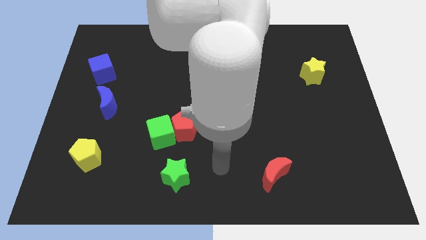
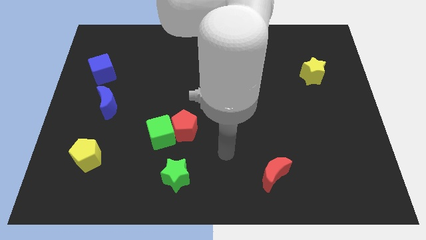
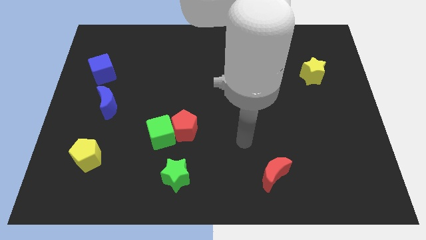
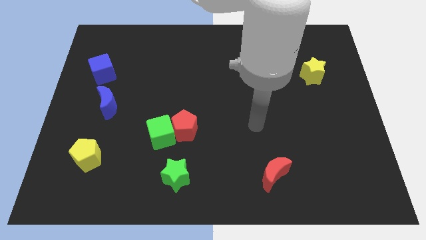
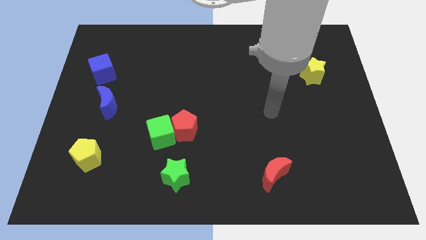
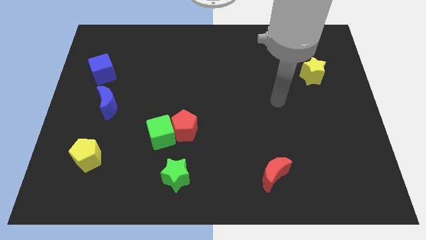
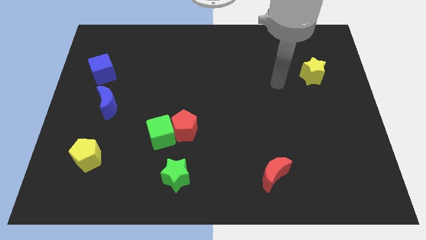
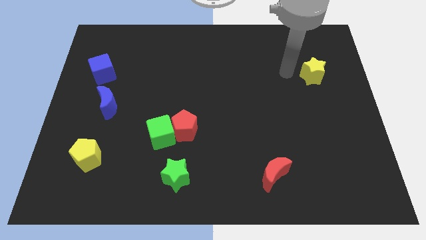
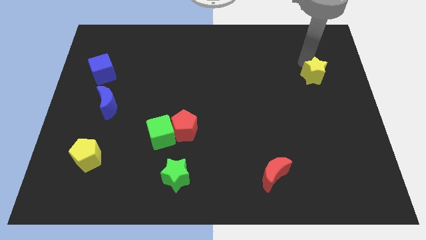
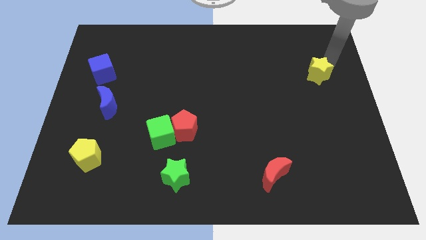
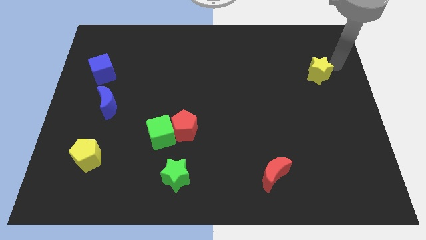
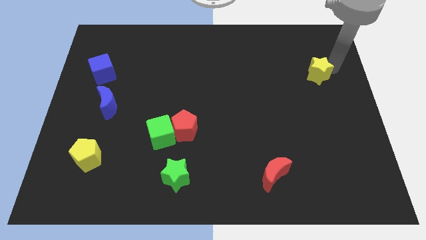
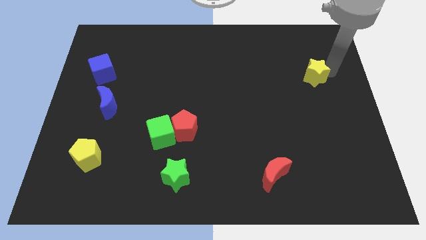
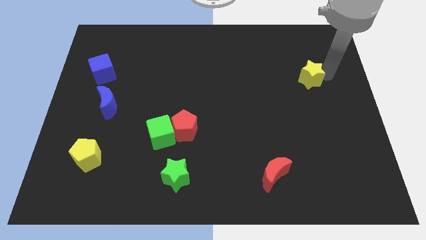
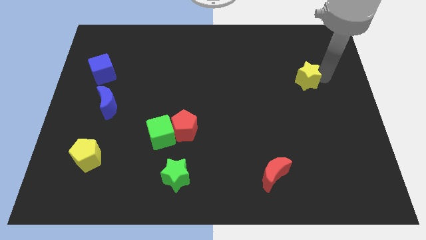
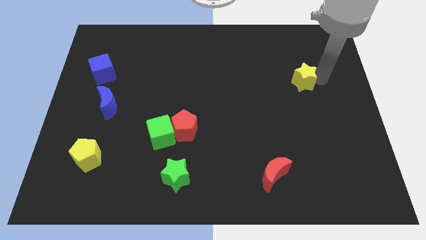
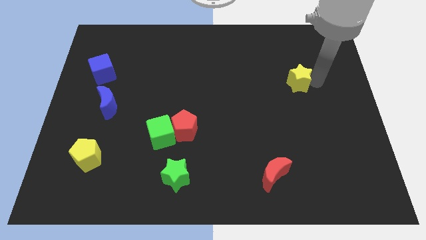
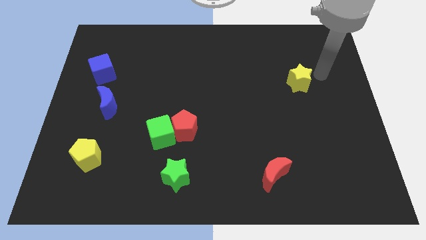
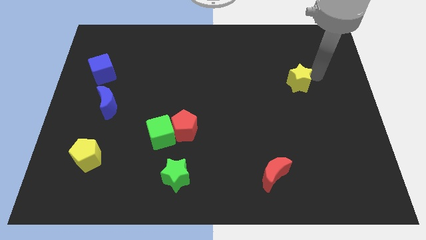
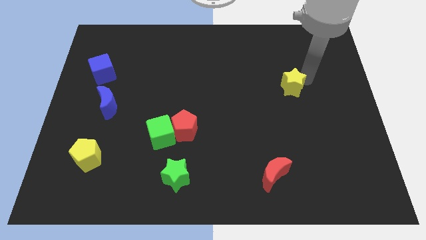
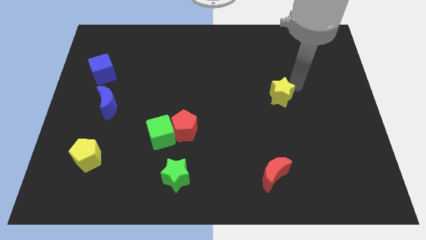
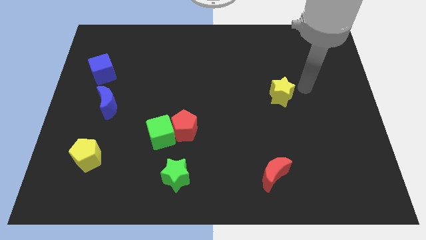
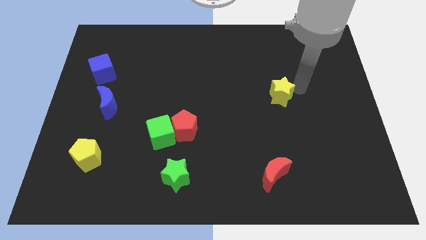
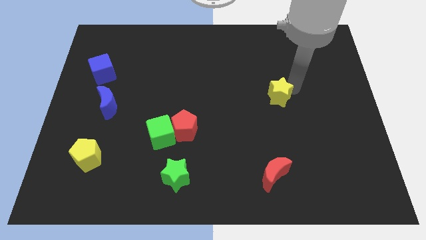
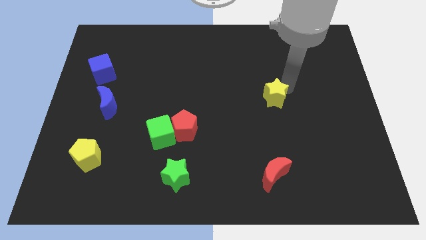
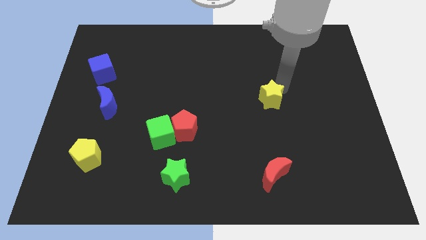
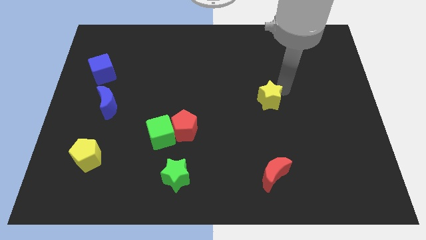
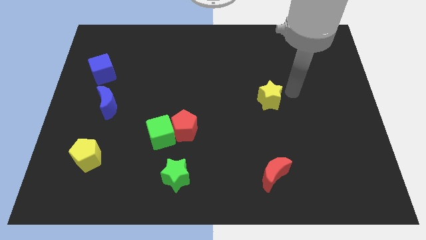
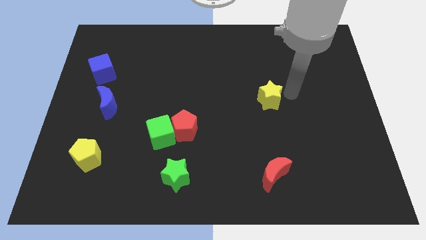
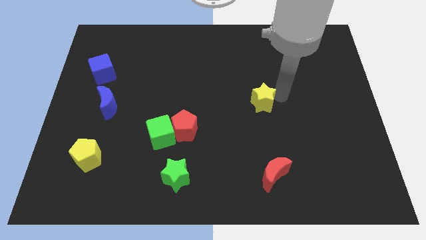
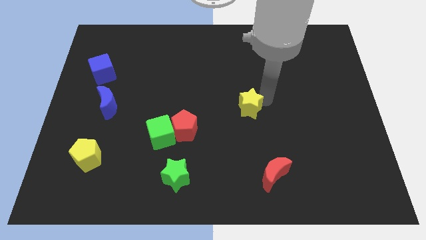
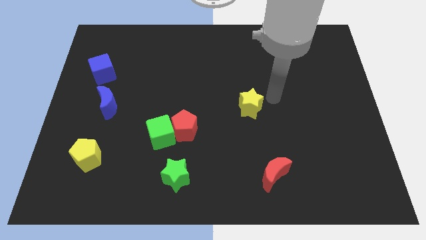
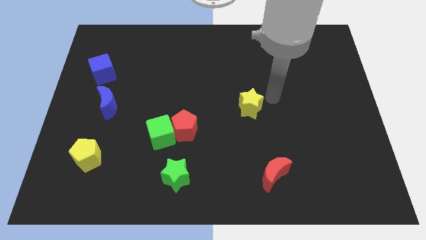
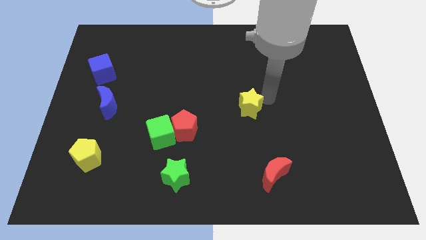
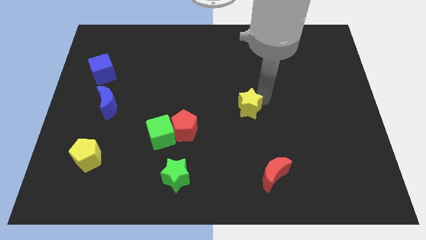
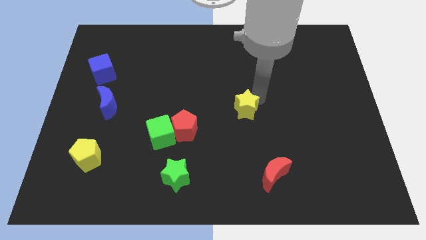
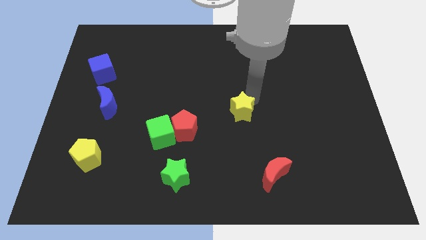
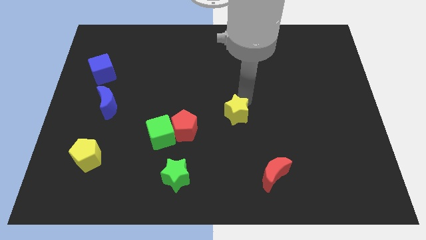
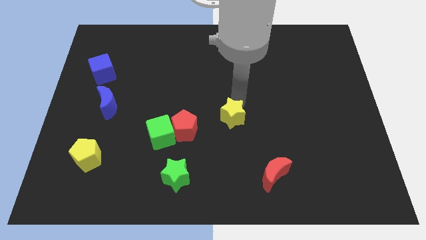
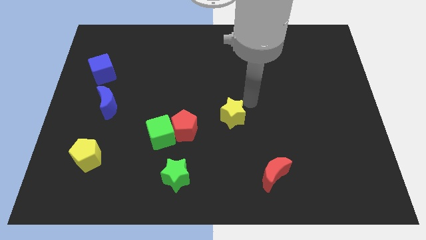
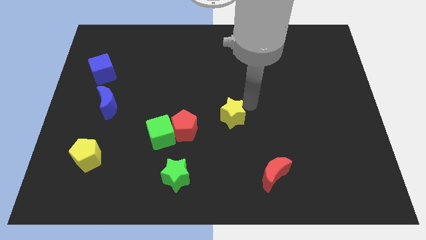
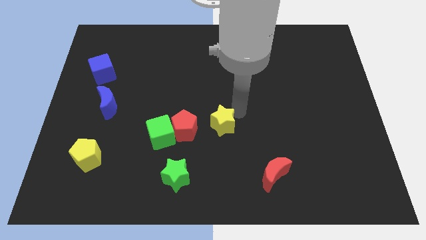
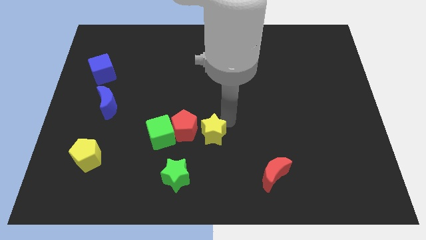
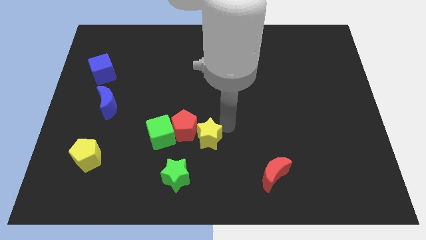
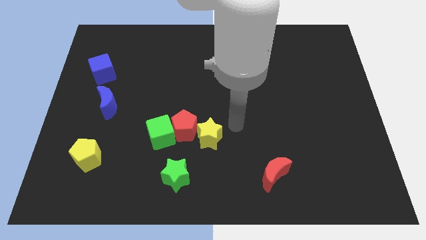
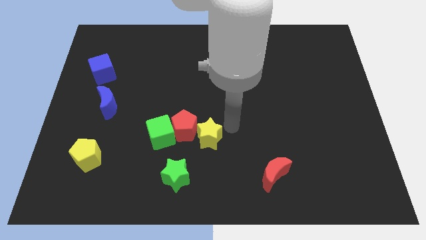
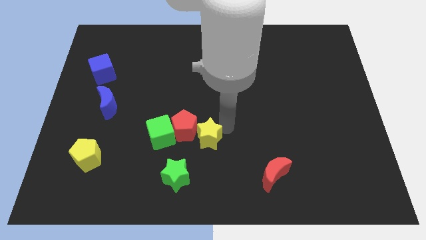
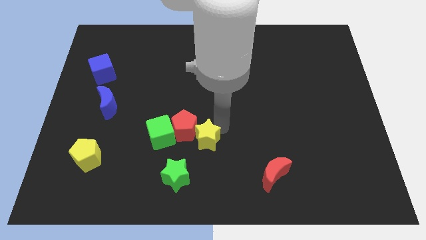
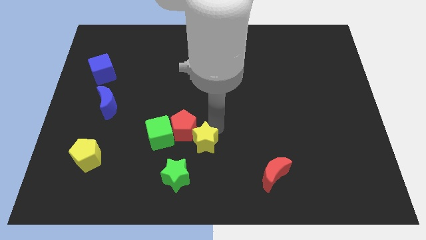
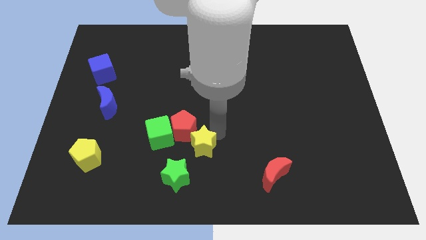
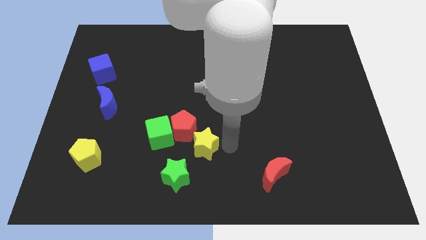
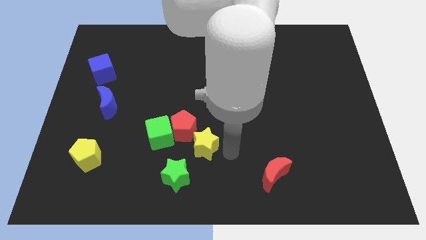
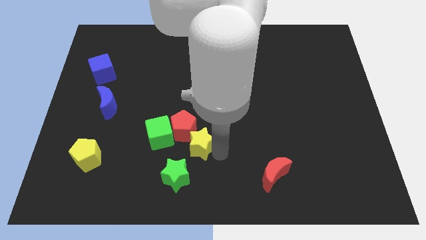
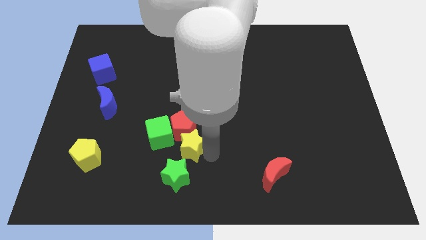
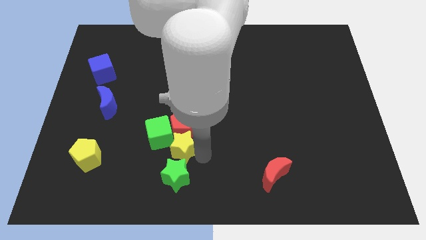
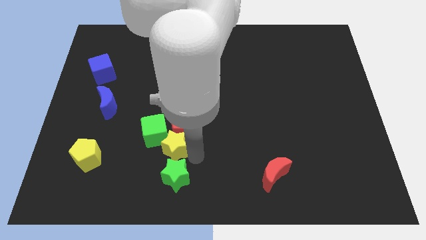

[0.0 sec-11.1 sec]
slide the yellow star close to the green cube

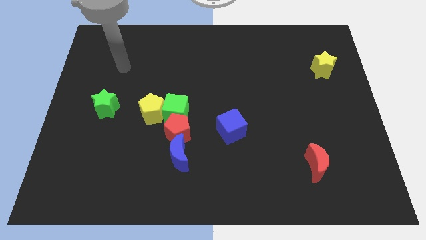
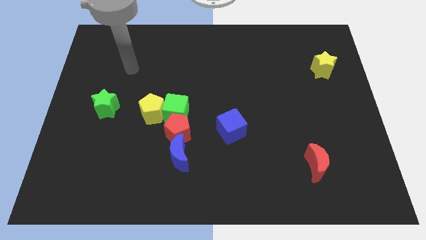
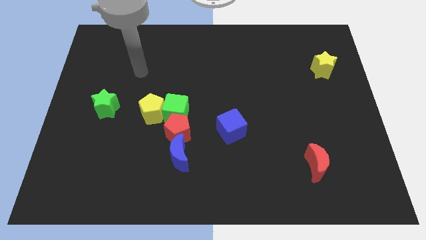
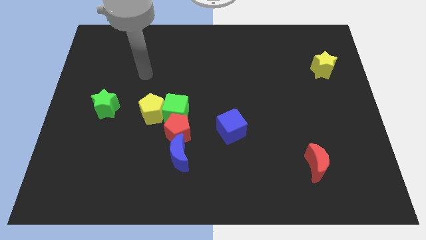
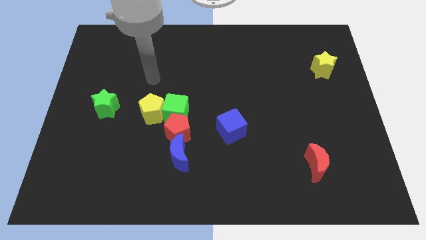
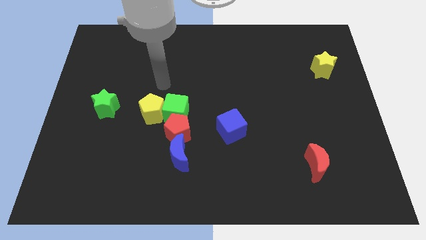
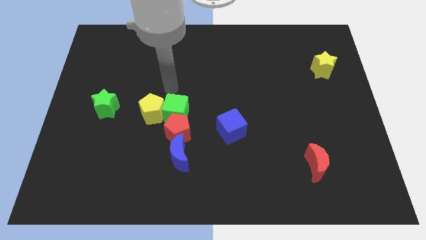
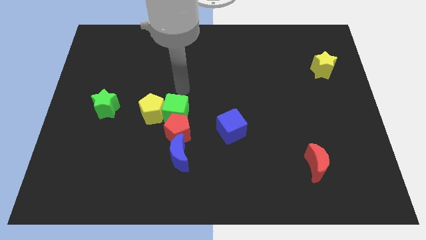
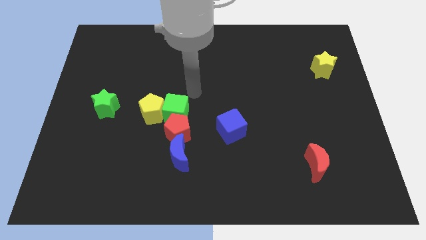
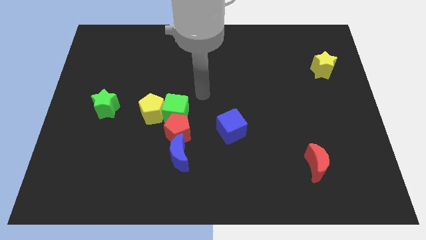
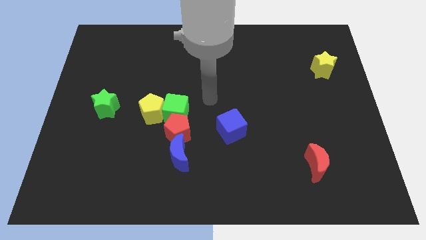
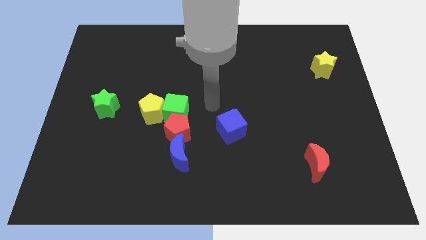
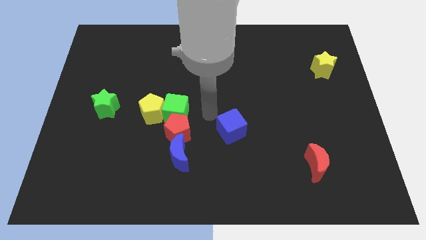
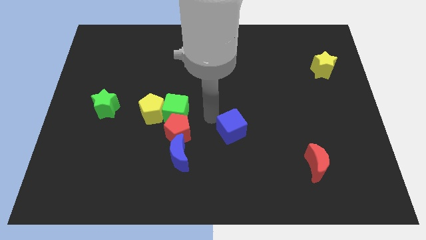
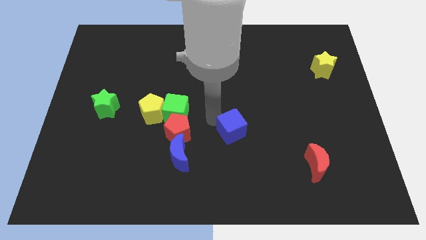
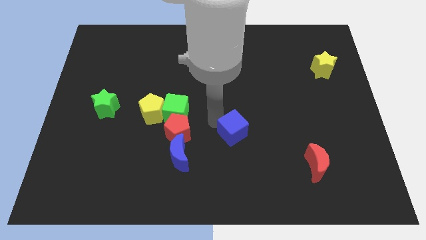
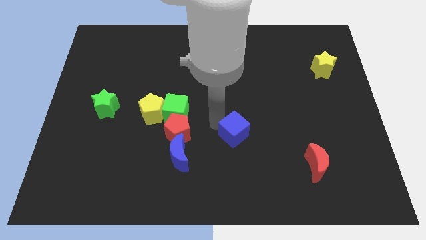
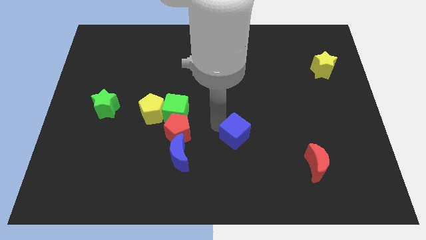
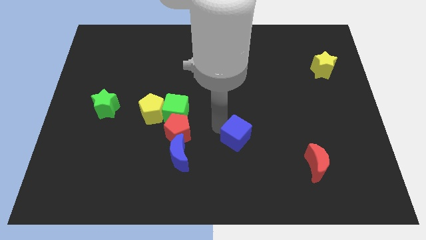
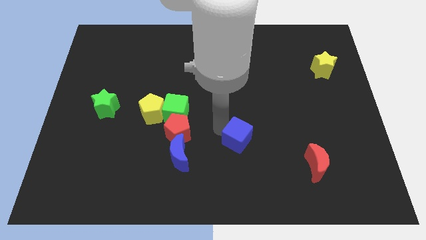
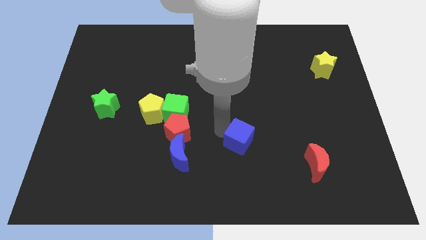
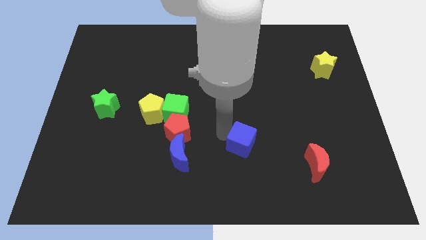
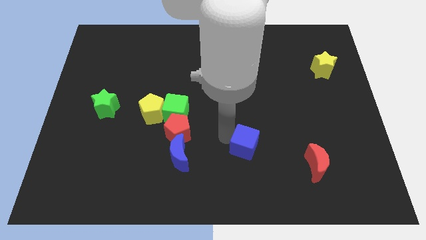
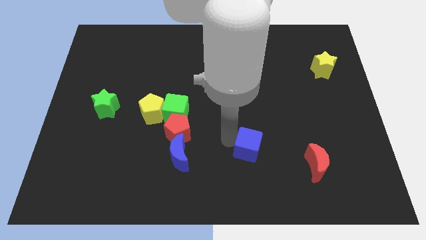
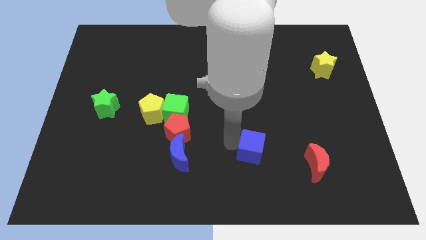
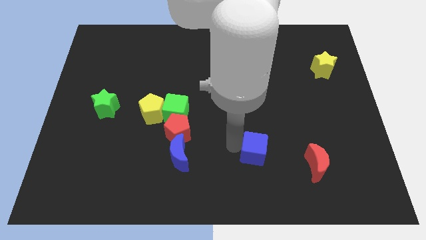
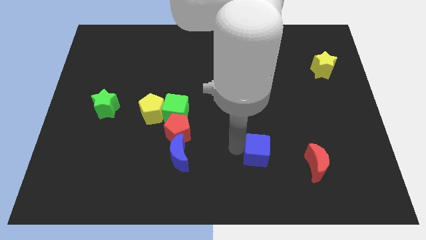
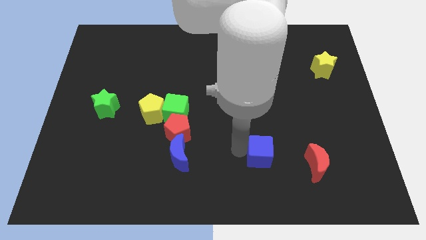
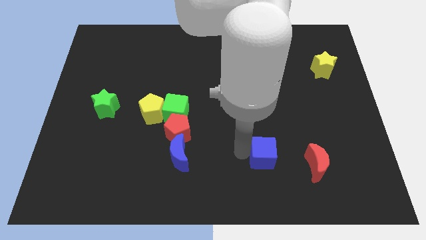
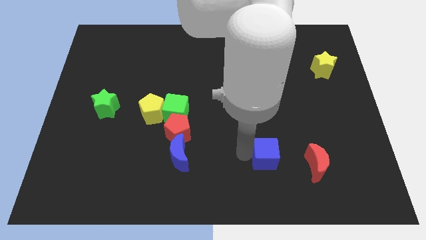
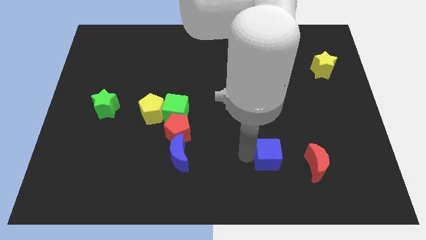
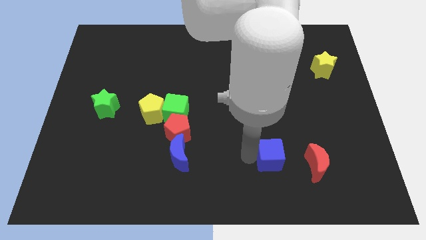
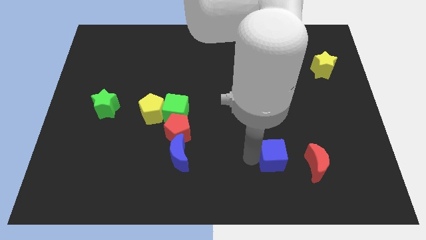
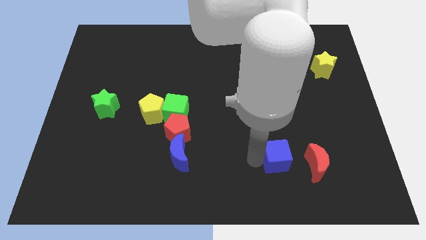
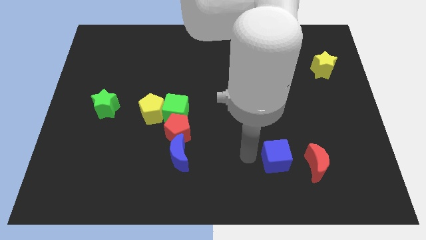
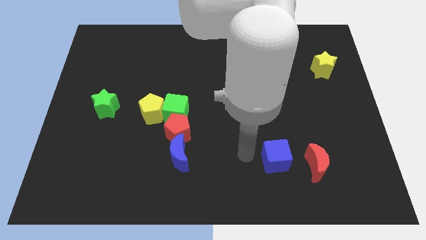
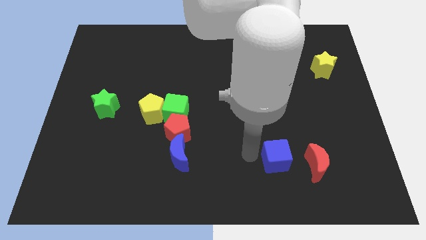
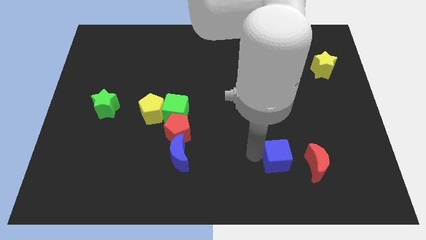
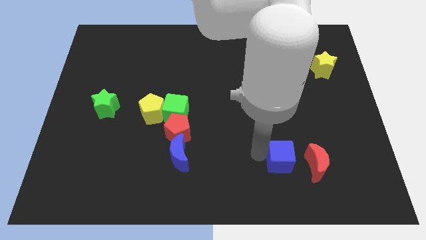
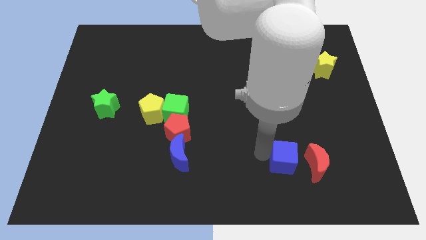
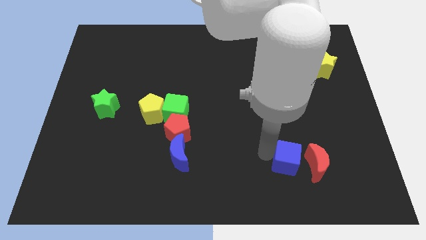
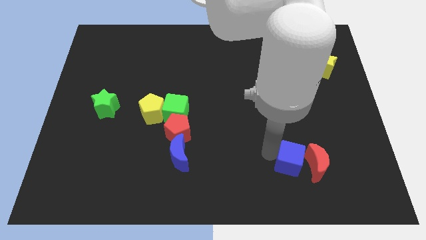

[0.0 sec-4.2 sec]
push the blue cube close to the red moon
